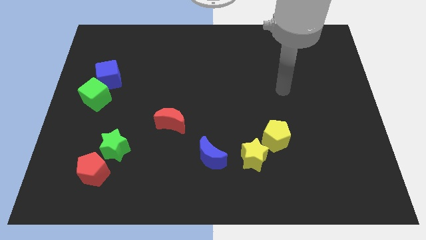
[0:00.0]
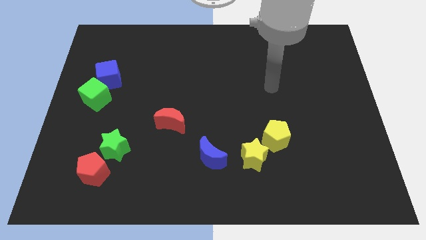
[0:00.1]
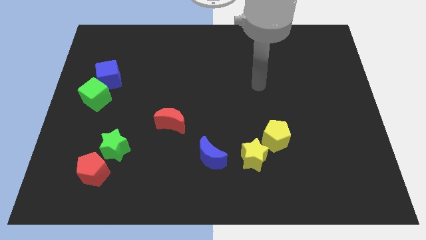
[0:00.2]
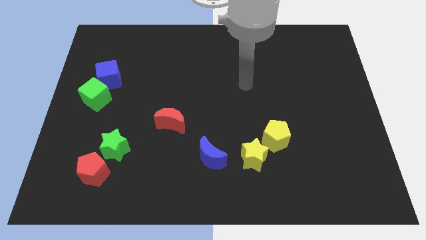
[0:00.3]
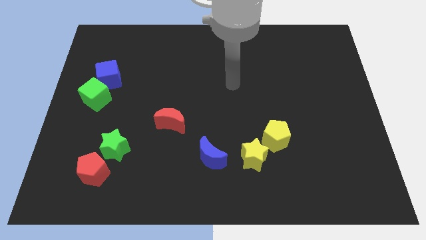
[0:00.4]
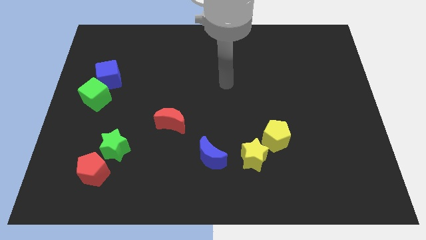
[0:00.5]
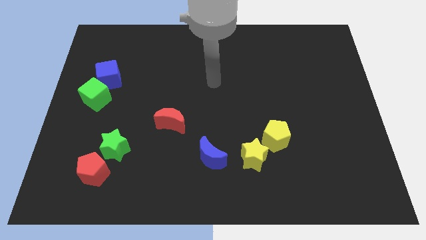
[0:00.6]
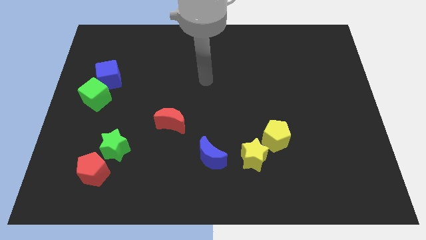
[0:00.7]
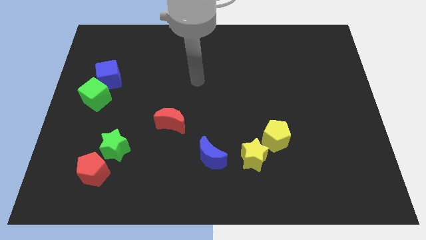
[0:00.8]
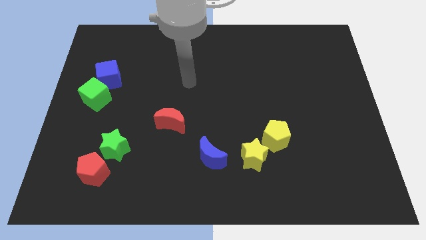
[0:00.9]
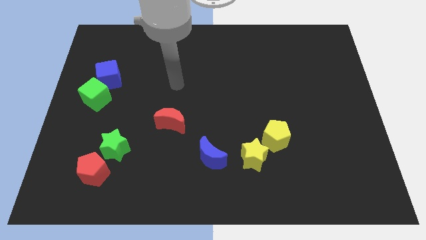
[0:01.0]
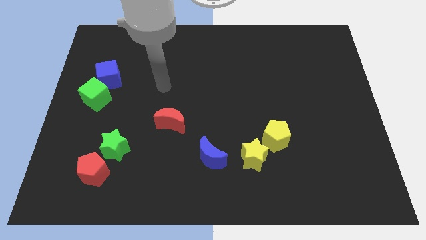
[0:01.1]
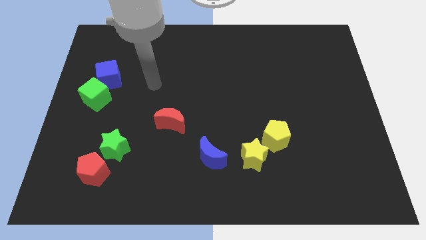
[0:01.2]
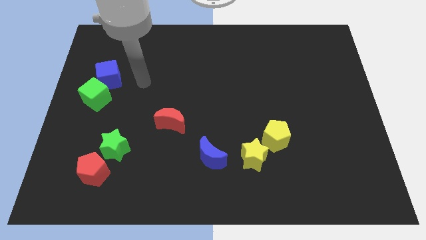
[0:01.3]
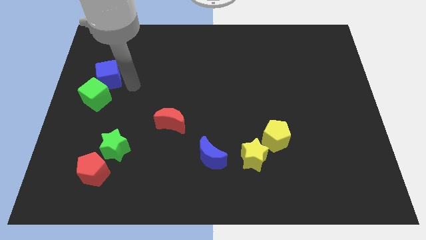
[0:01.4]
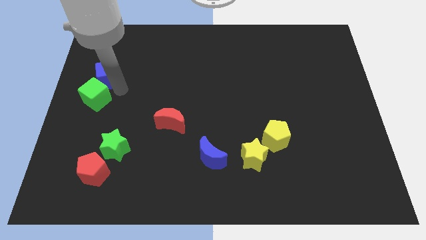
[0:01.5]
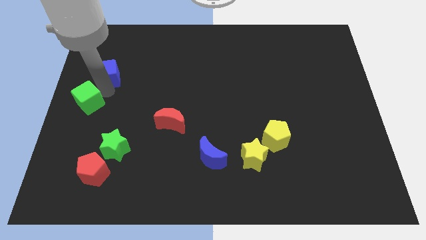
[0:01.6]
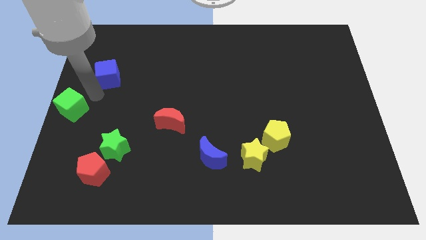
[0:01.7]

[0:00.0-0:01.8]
move the blue cube away from the green cube

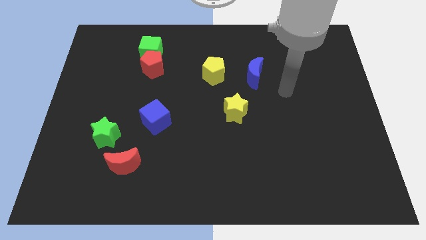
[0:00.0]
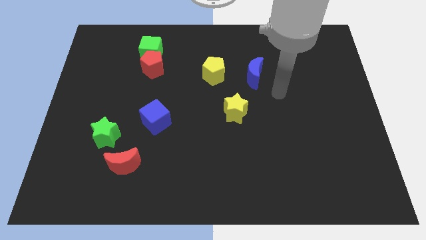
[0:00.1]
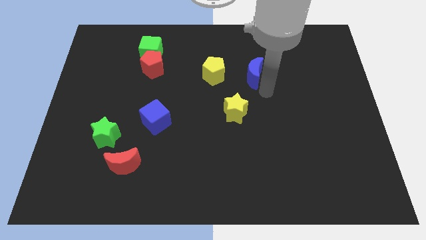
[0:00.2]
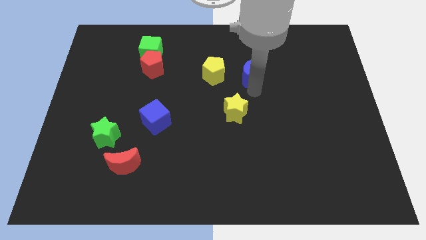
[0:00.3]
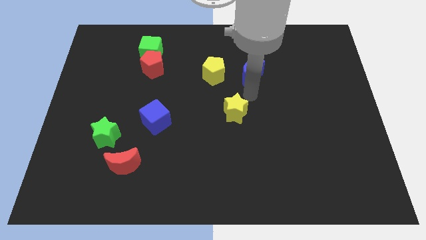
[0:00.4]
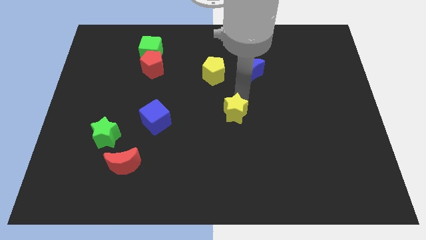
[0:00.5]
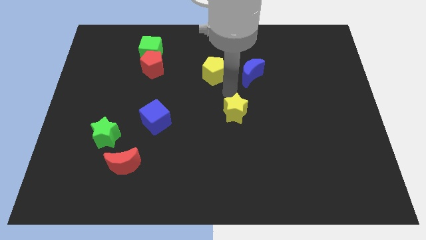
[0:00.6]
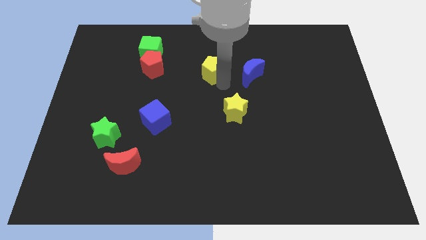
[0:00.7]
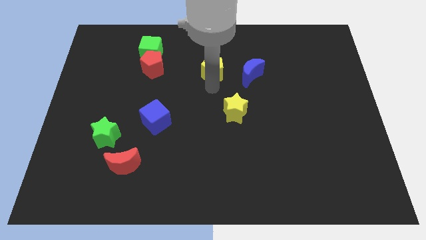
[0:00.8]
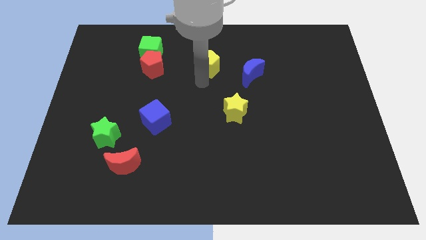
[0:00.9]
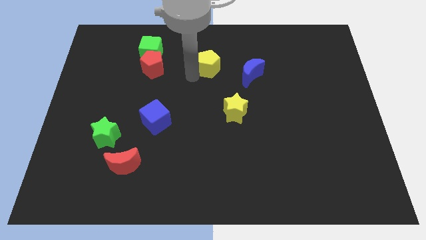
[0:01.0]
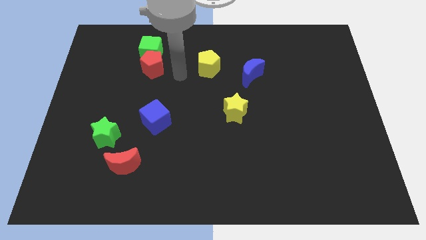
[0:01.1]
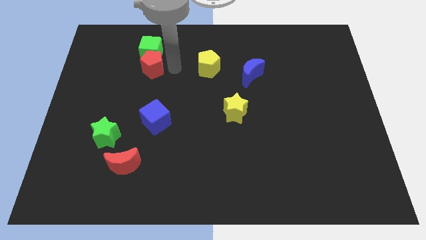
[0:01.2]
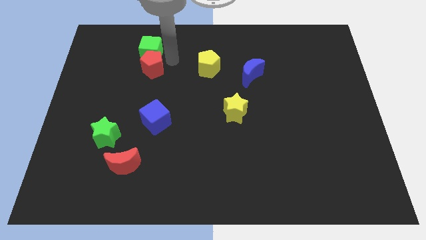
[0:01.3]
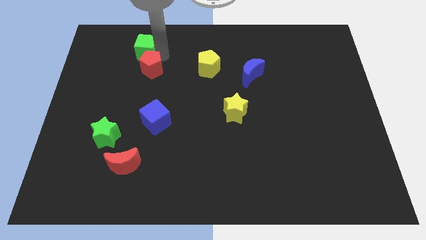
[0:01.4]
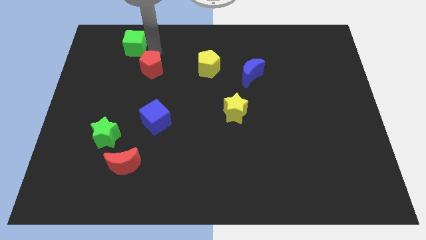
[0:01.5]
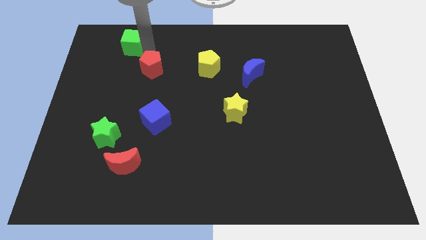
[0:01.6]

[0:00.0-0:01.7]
pull the red pentagon apart from the green cube

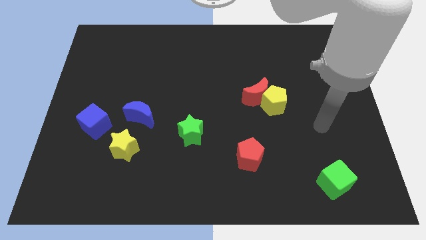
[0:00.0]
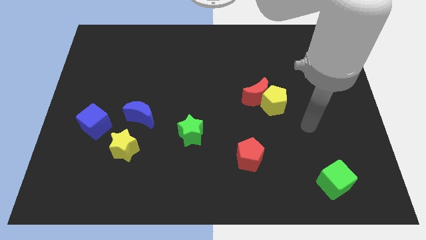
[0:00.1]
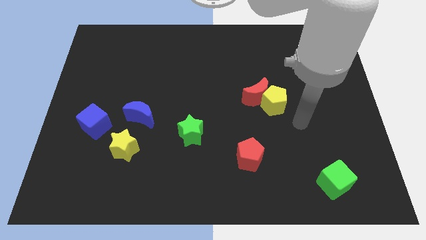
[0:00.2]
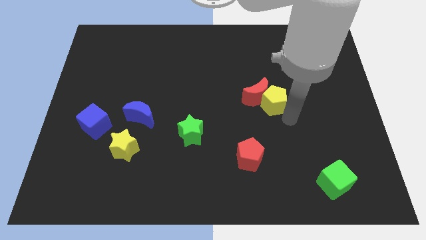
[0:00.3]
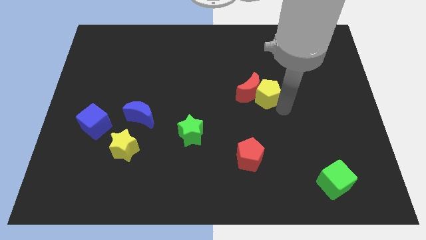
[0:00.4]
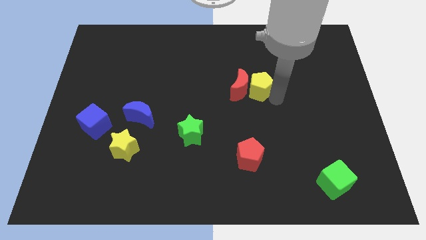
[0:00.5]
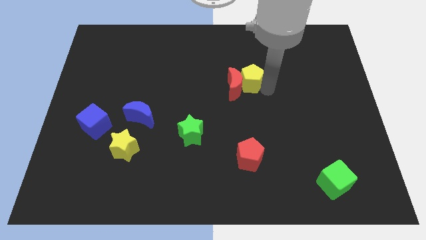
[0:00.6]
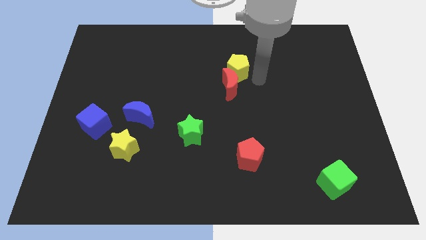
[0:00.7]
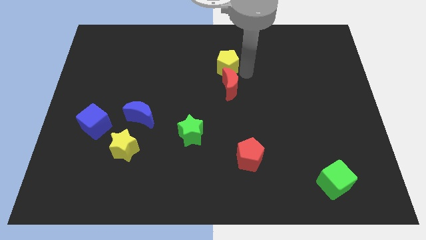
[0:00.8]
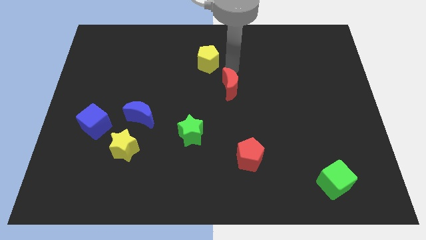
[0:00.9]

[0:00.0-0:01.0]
pull the red moon apart from the yellow pentagon

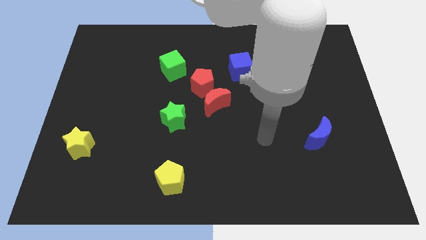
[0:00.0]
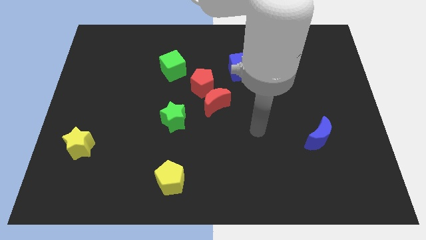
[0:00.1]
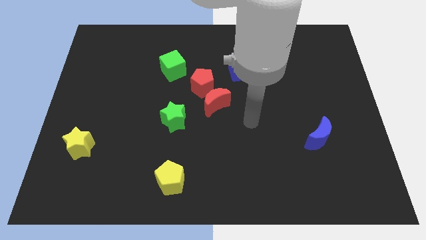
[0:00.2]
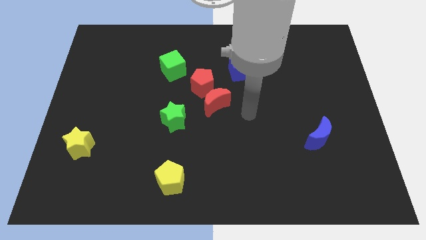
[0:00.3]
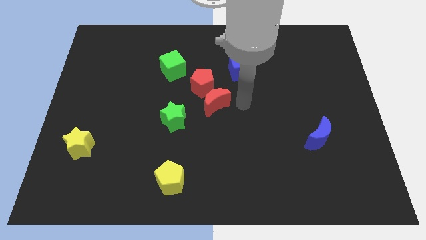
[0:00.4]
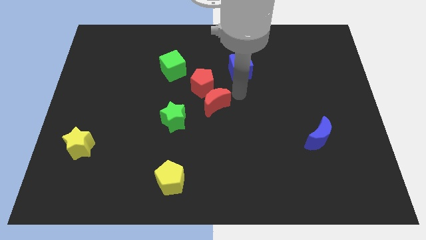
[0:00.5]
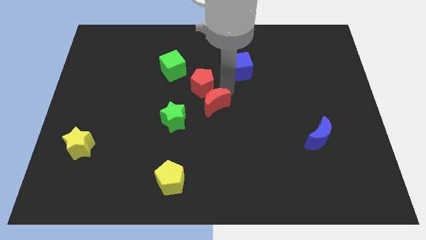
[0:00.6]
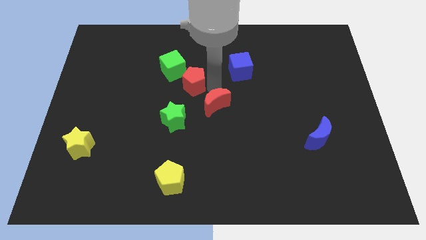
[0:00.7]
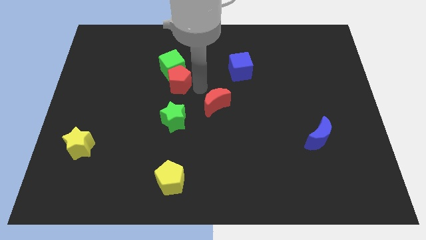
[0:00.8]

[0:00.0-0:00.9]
move the red moon away from the red pentagon

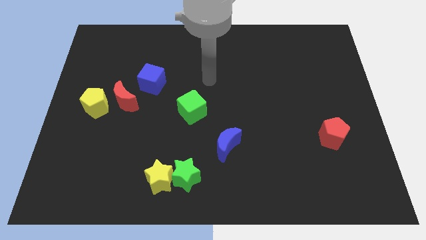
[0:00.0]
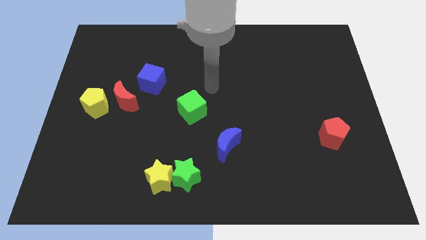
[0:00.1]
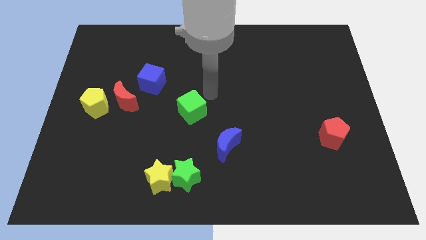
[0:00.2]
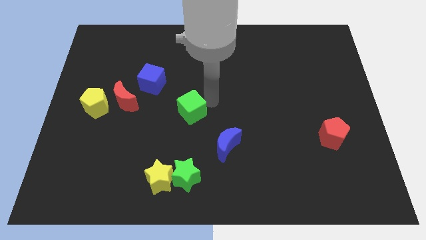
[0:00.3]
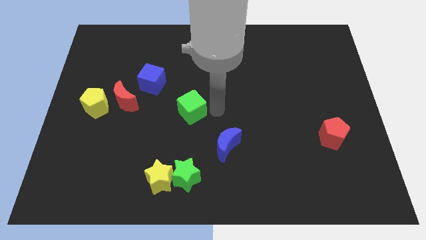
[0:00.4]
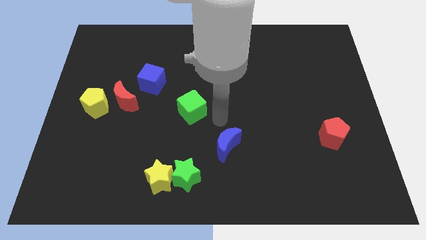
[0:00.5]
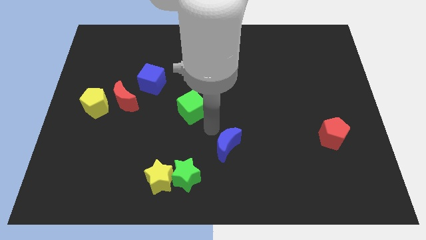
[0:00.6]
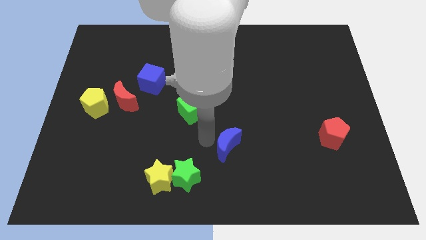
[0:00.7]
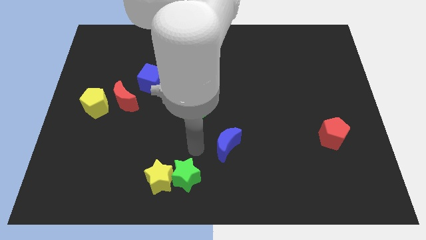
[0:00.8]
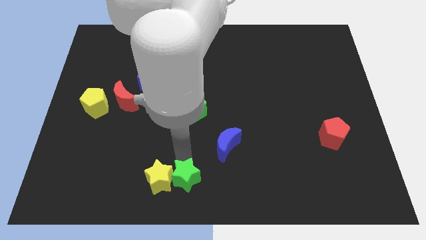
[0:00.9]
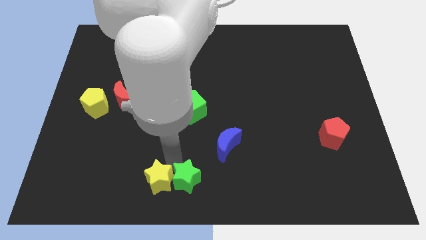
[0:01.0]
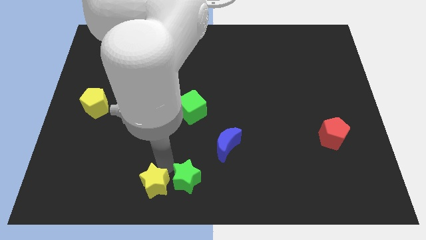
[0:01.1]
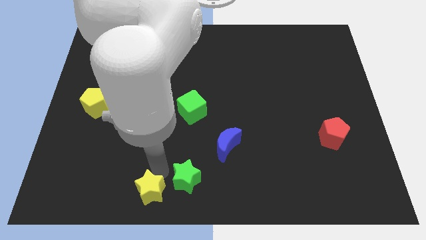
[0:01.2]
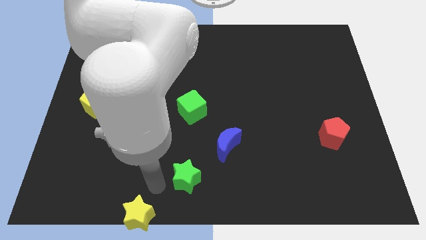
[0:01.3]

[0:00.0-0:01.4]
separate the green star from the yellow star

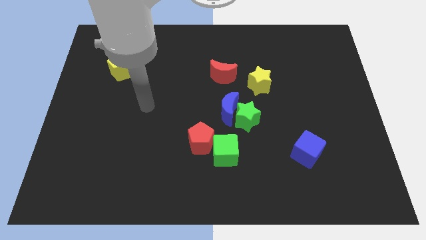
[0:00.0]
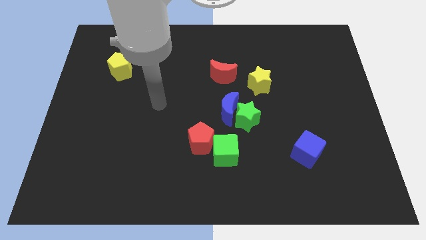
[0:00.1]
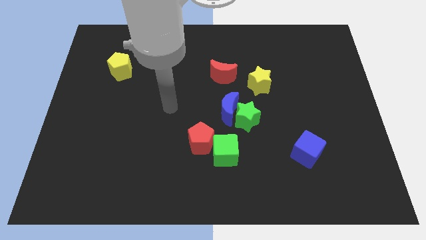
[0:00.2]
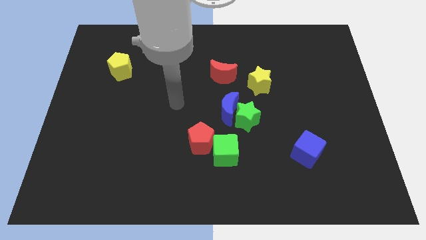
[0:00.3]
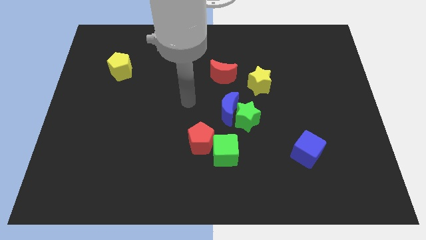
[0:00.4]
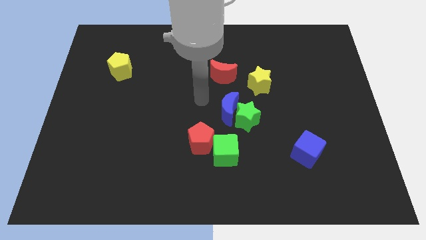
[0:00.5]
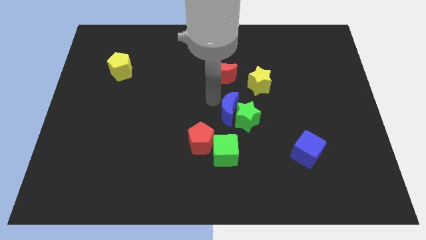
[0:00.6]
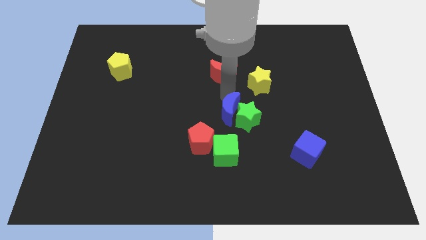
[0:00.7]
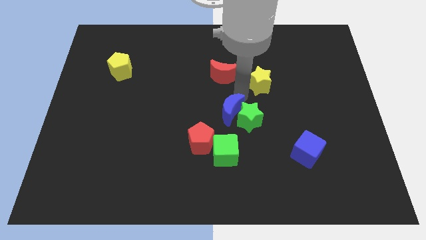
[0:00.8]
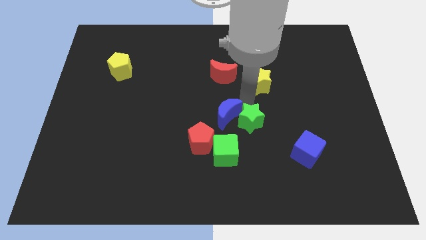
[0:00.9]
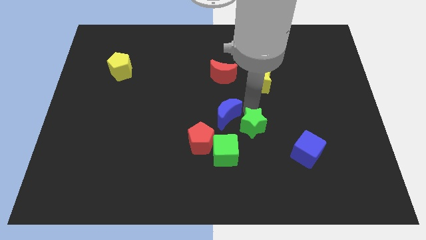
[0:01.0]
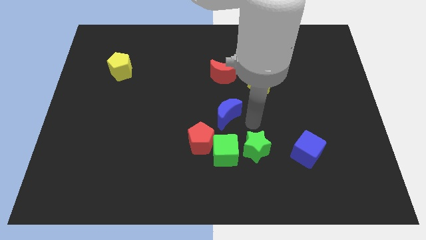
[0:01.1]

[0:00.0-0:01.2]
move the blue moon away from the green star

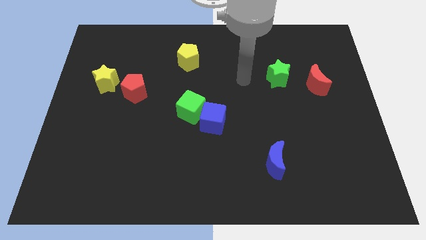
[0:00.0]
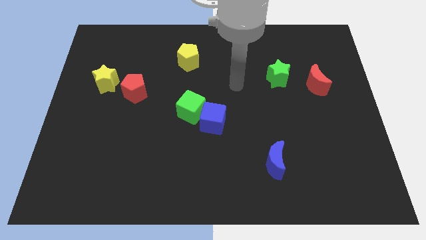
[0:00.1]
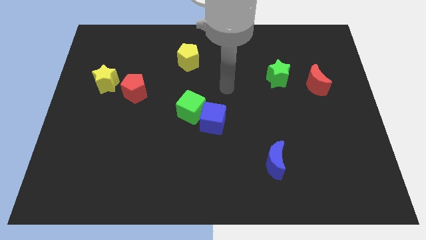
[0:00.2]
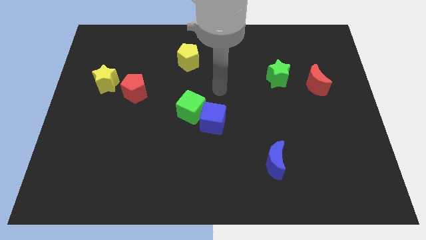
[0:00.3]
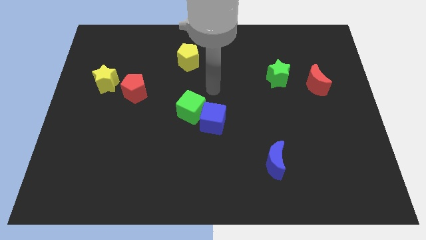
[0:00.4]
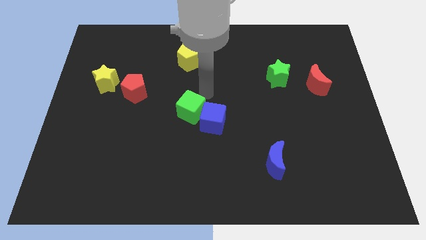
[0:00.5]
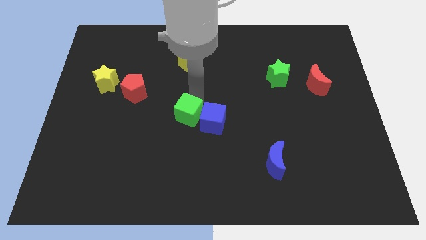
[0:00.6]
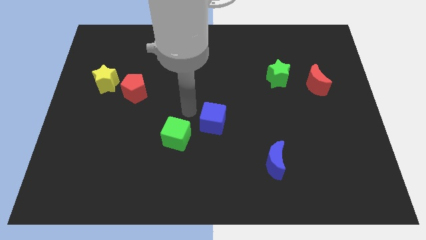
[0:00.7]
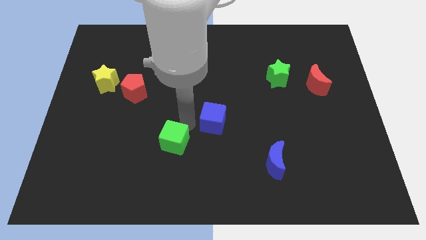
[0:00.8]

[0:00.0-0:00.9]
separate the blue cube from the green cube

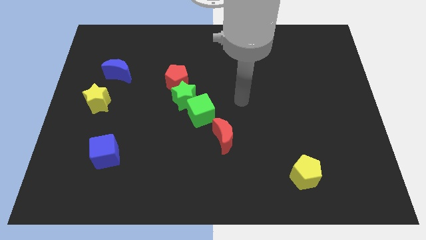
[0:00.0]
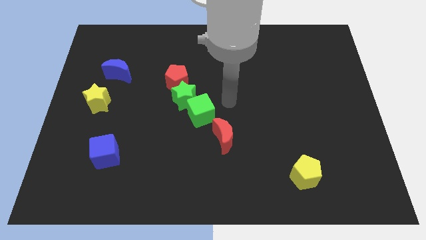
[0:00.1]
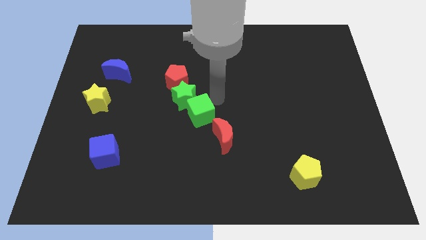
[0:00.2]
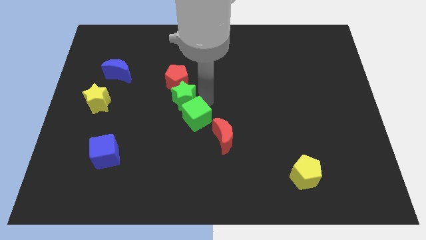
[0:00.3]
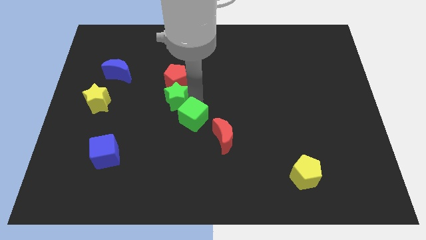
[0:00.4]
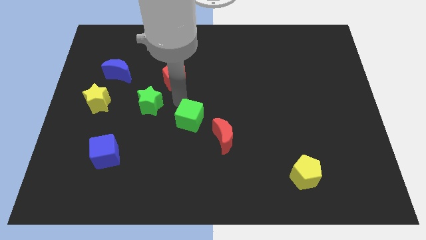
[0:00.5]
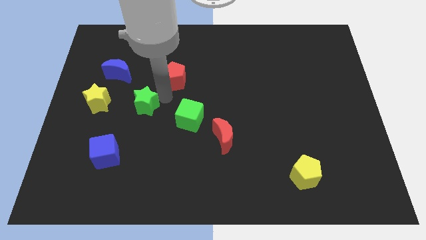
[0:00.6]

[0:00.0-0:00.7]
move the red pentagon away from the green star
